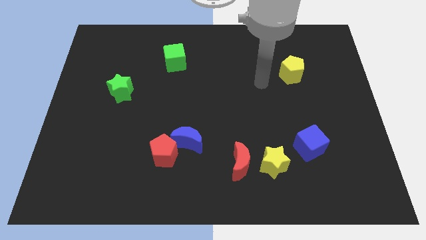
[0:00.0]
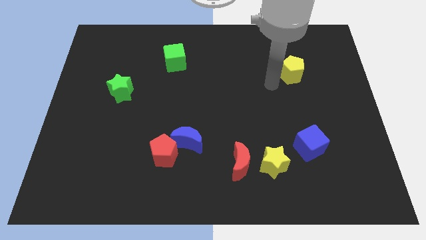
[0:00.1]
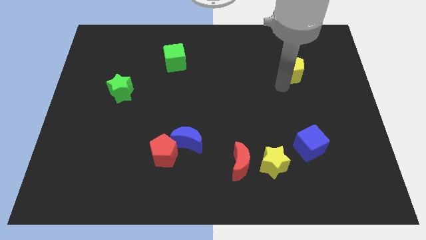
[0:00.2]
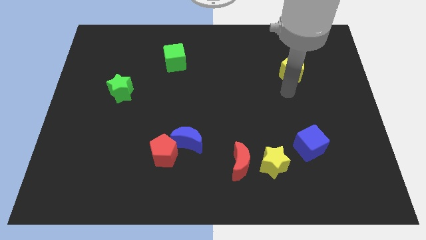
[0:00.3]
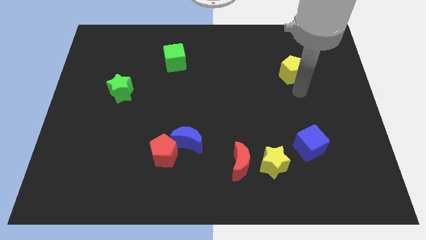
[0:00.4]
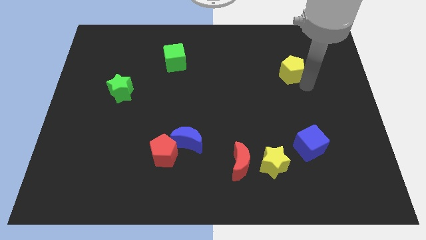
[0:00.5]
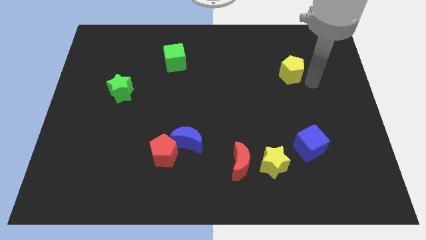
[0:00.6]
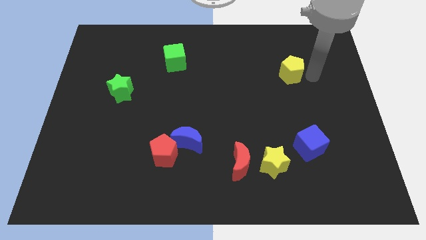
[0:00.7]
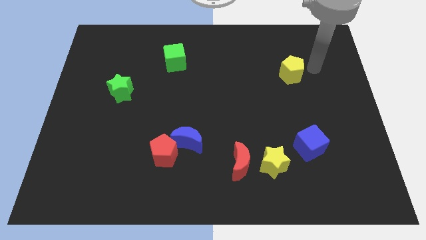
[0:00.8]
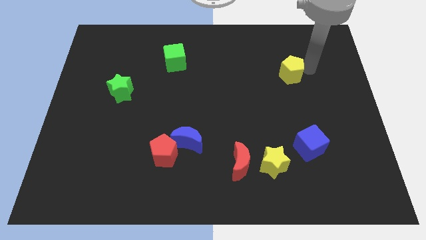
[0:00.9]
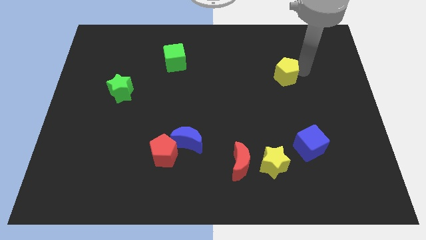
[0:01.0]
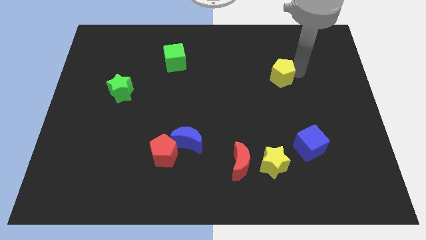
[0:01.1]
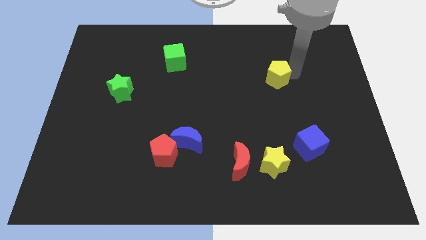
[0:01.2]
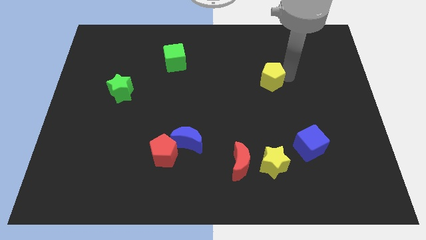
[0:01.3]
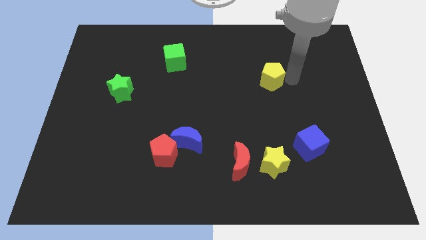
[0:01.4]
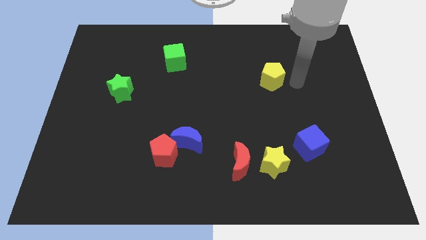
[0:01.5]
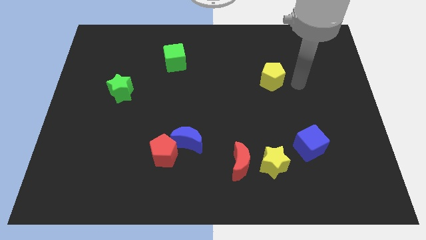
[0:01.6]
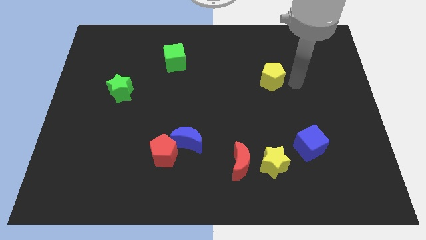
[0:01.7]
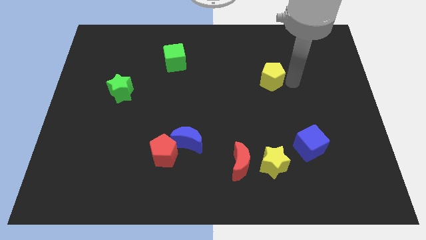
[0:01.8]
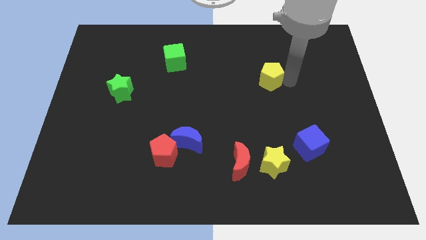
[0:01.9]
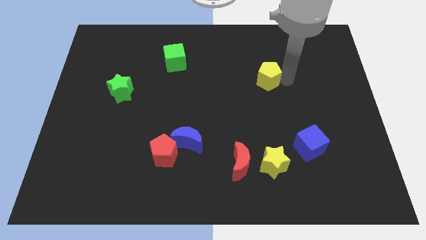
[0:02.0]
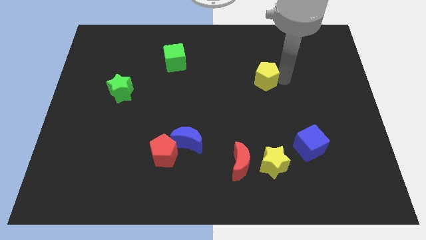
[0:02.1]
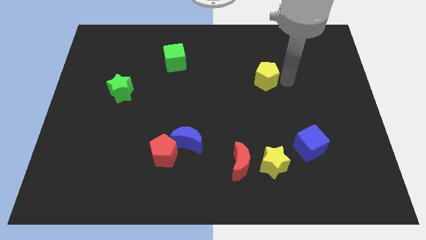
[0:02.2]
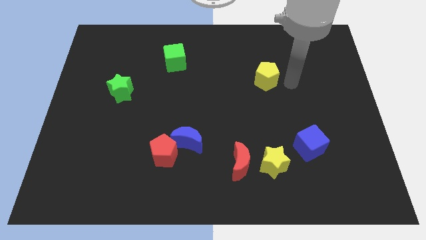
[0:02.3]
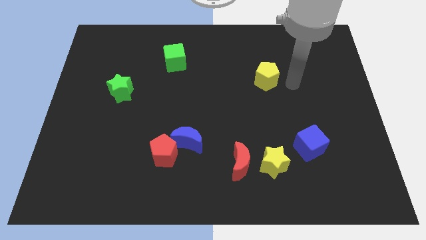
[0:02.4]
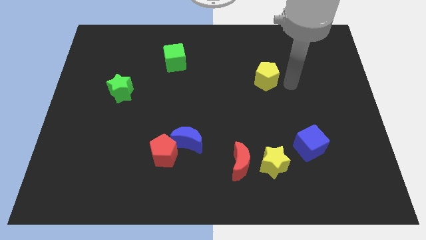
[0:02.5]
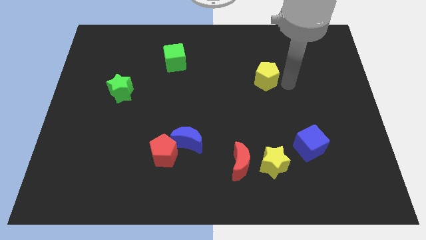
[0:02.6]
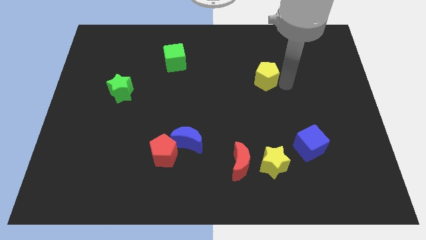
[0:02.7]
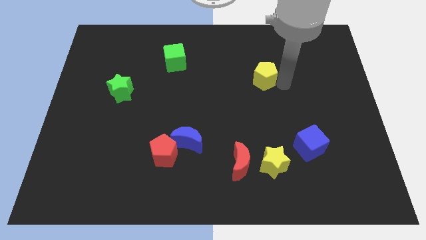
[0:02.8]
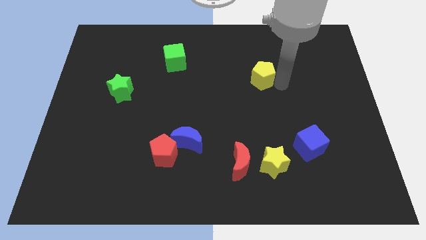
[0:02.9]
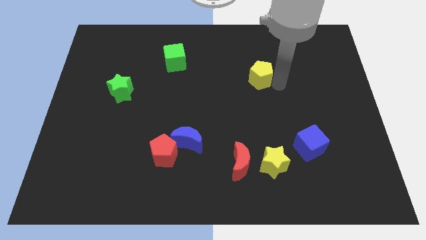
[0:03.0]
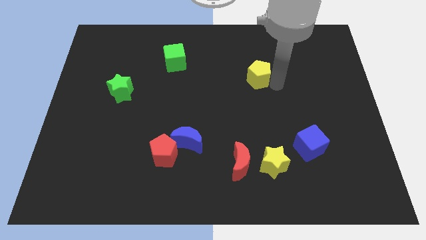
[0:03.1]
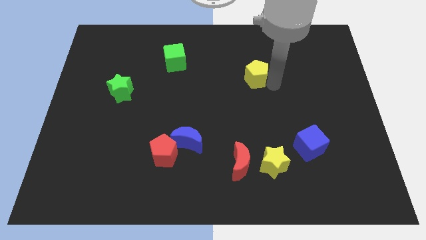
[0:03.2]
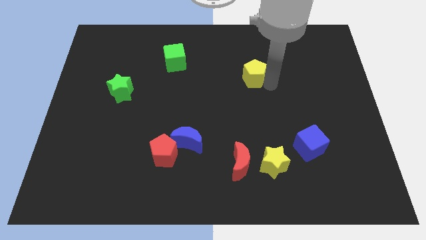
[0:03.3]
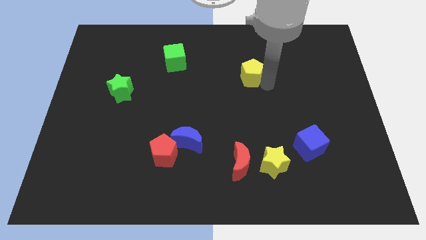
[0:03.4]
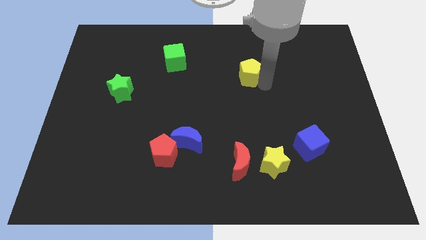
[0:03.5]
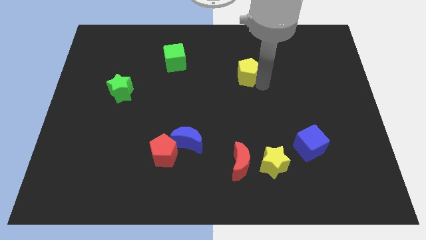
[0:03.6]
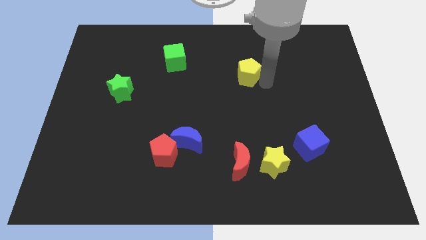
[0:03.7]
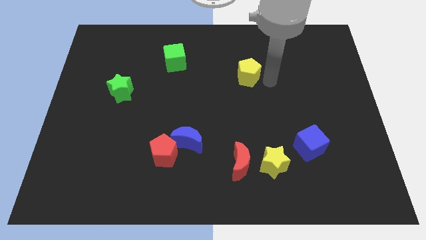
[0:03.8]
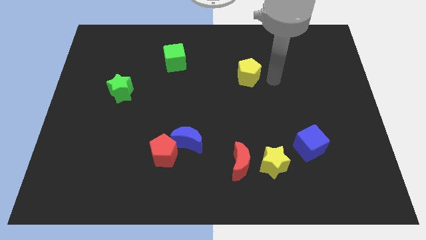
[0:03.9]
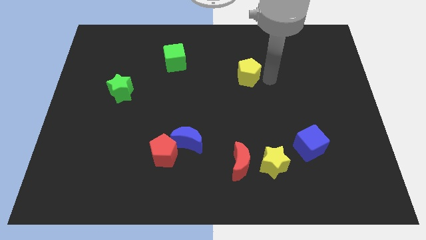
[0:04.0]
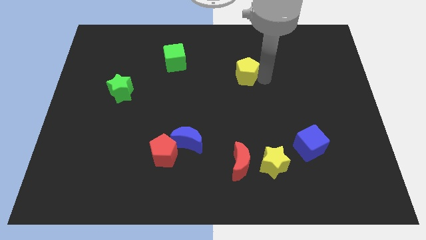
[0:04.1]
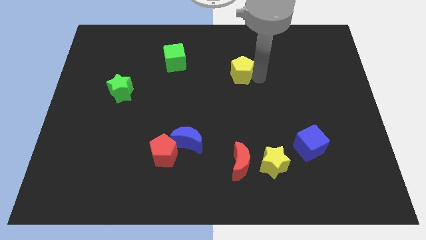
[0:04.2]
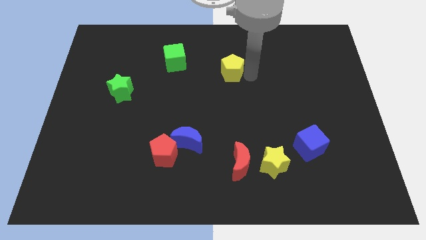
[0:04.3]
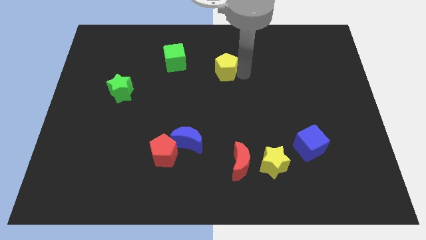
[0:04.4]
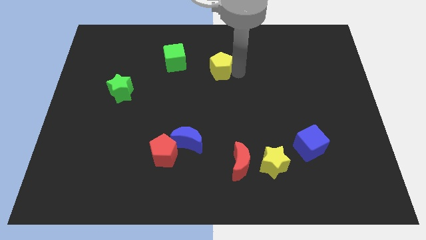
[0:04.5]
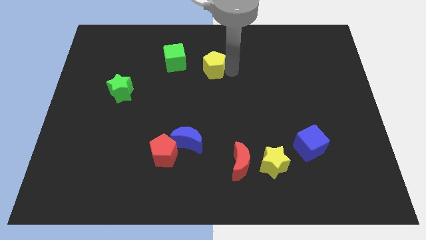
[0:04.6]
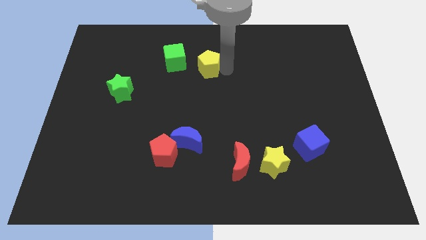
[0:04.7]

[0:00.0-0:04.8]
slide the yellow pentagon left

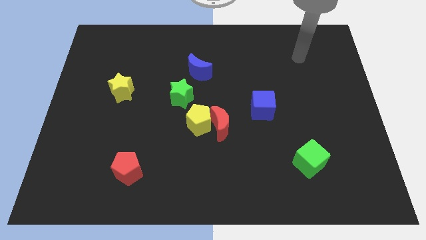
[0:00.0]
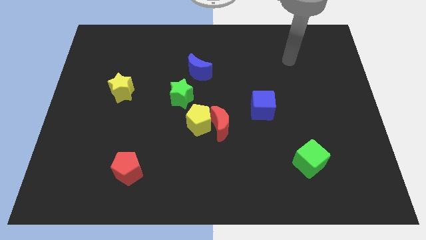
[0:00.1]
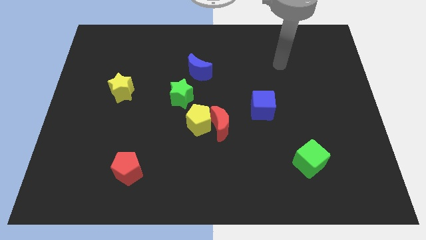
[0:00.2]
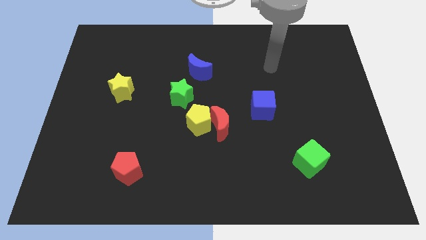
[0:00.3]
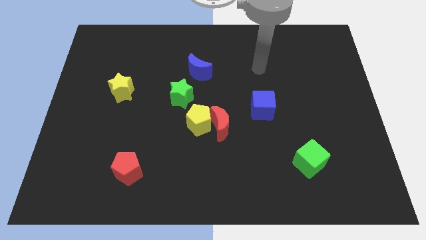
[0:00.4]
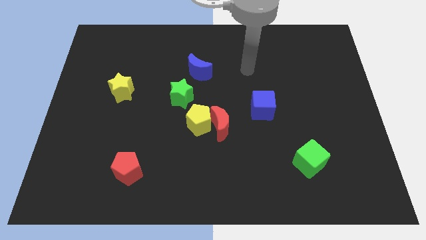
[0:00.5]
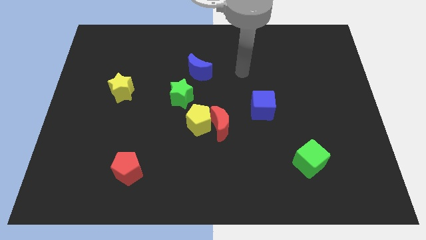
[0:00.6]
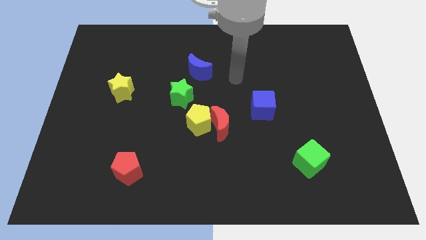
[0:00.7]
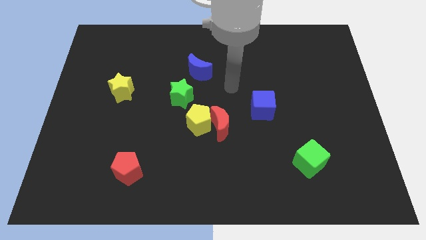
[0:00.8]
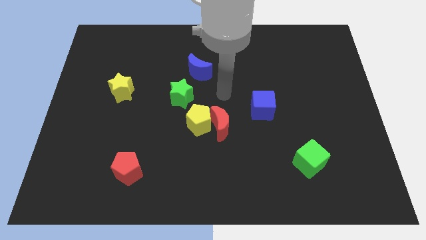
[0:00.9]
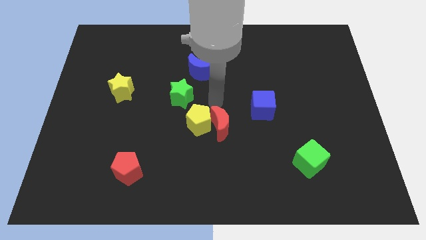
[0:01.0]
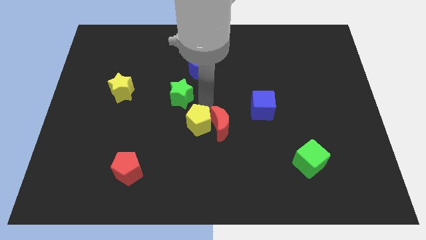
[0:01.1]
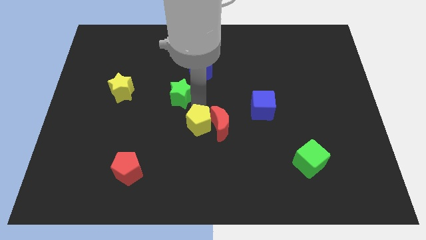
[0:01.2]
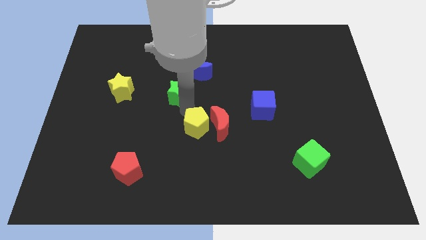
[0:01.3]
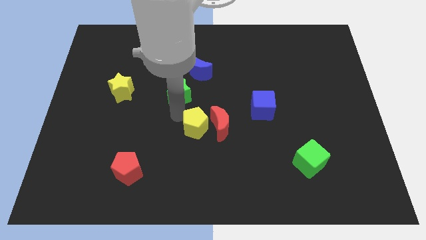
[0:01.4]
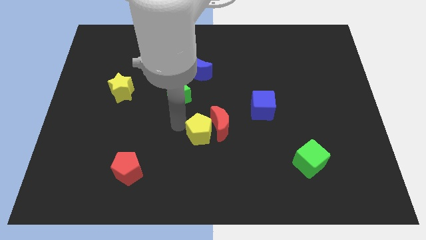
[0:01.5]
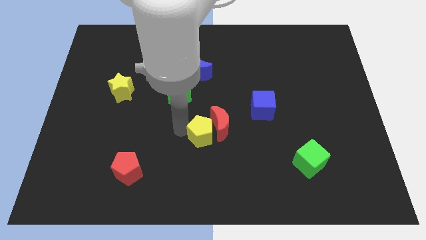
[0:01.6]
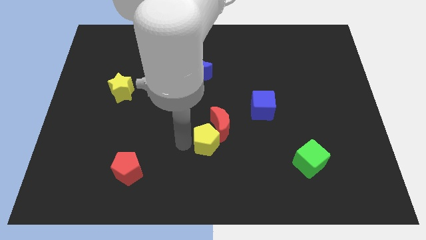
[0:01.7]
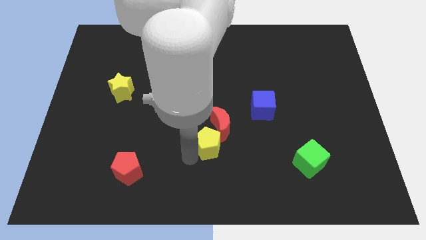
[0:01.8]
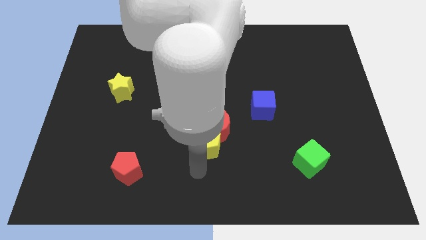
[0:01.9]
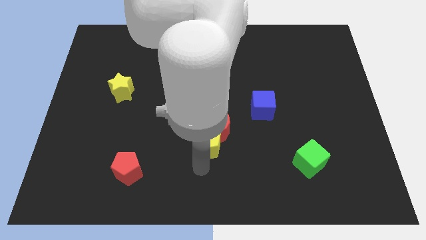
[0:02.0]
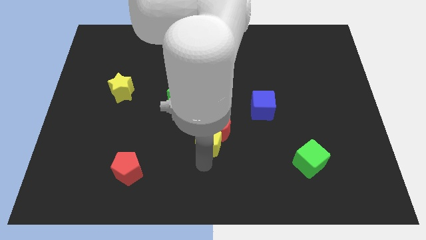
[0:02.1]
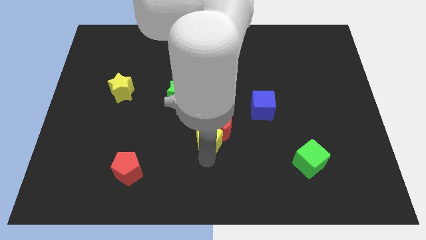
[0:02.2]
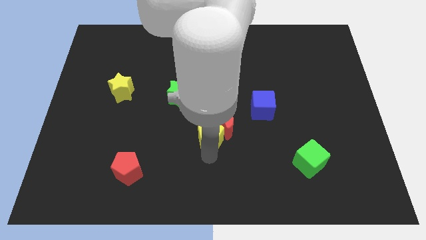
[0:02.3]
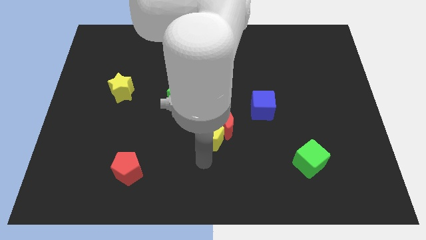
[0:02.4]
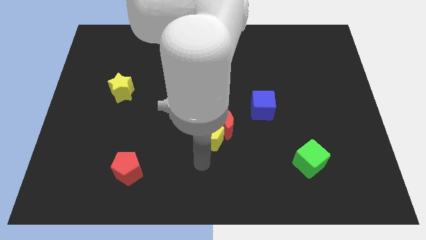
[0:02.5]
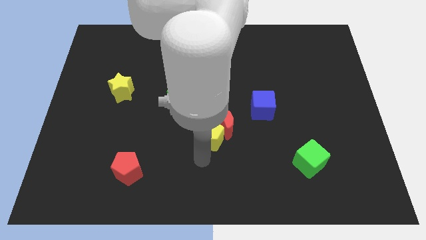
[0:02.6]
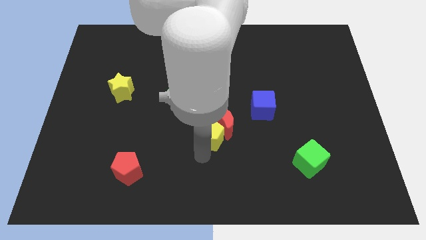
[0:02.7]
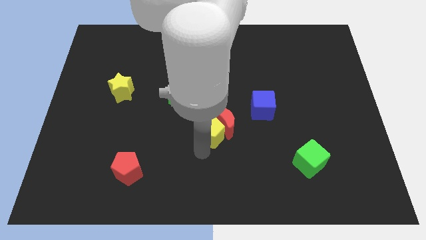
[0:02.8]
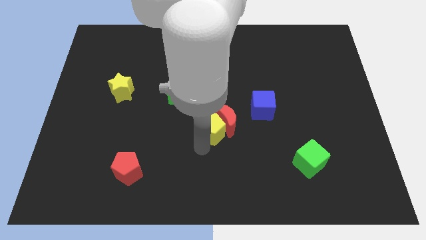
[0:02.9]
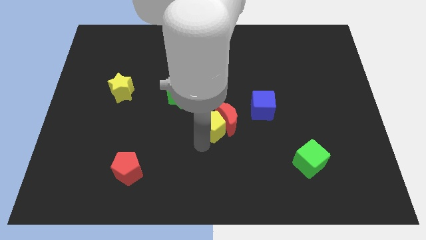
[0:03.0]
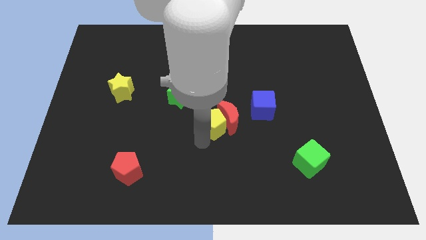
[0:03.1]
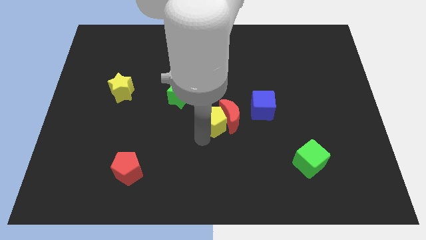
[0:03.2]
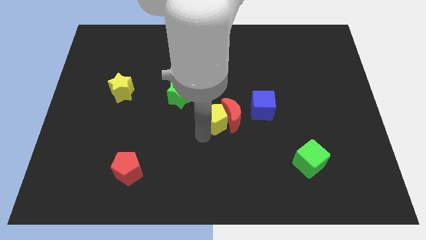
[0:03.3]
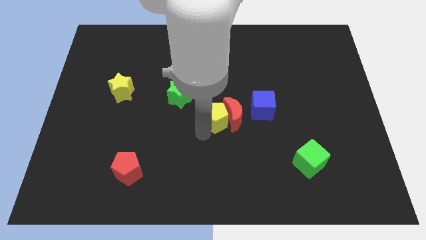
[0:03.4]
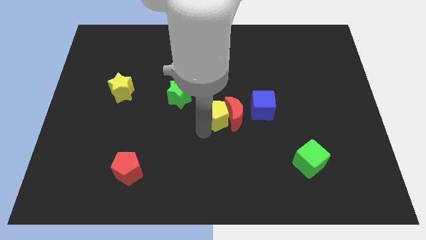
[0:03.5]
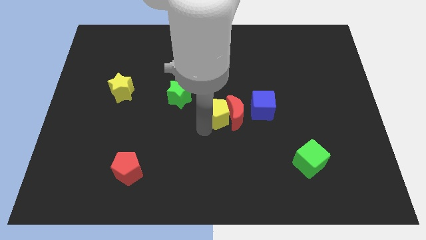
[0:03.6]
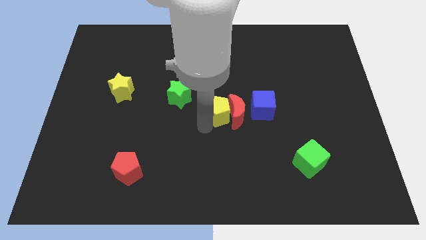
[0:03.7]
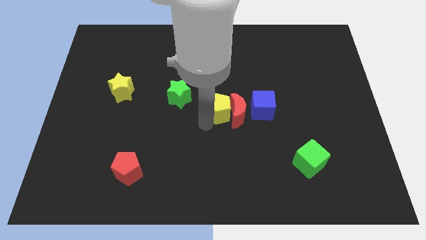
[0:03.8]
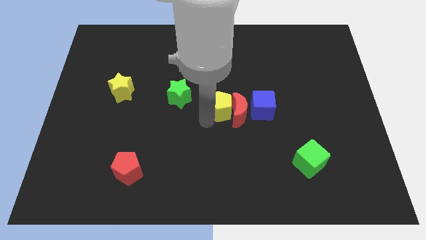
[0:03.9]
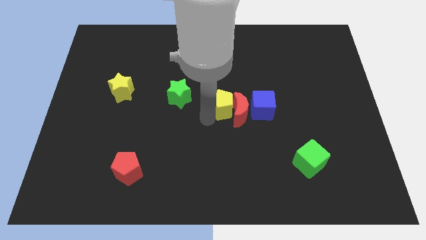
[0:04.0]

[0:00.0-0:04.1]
slightly push the yellow pentagon up and then right
